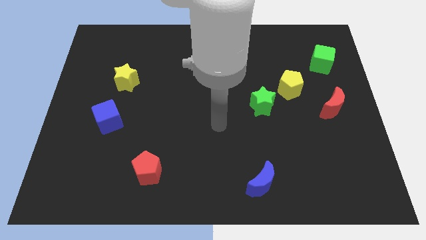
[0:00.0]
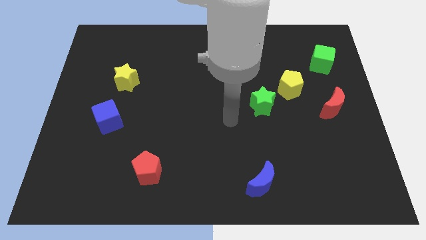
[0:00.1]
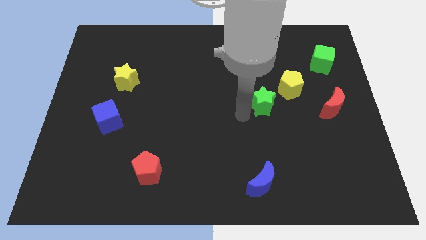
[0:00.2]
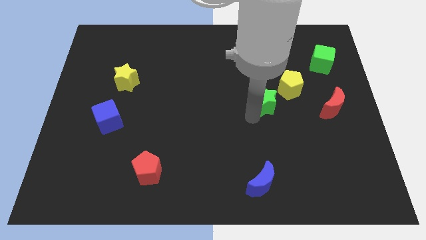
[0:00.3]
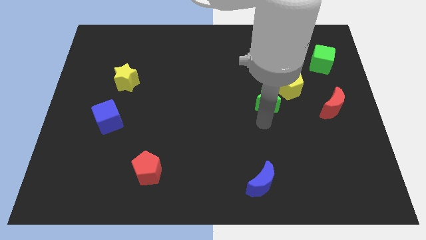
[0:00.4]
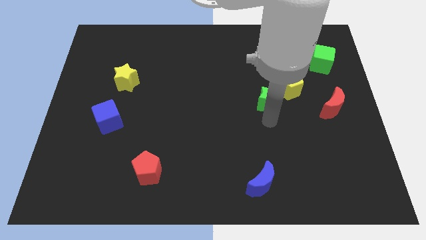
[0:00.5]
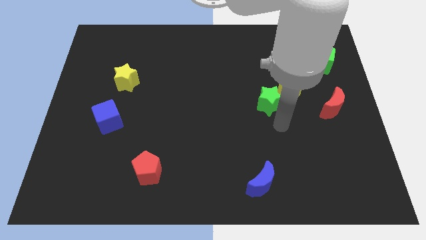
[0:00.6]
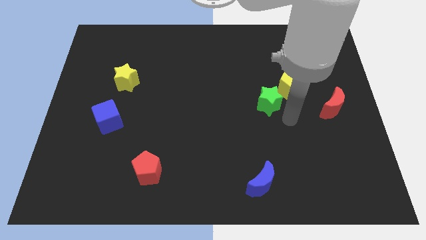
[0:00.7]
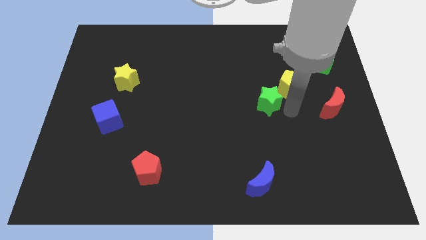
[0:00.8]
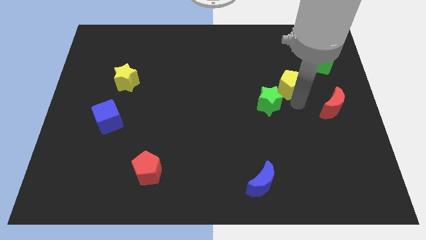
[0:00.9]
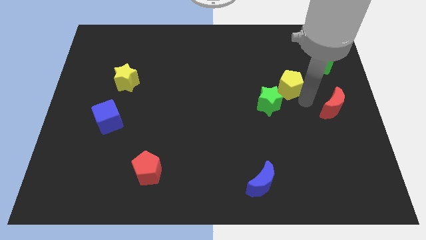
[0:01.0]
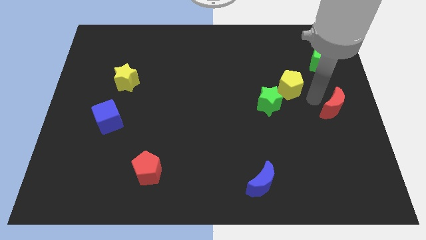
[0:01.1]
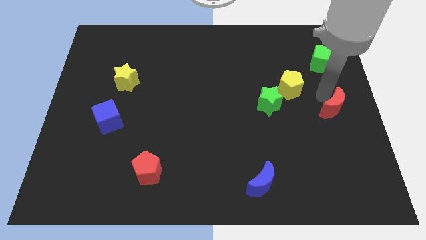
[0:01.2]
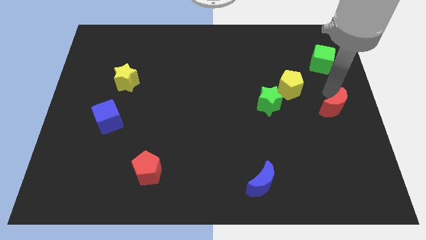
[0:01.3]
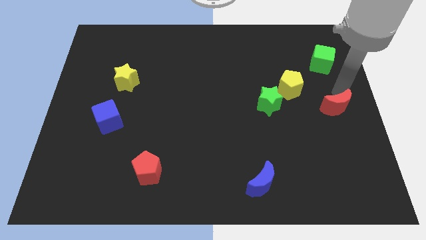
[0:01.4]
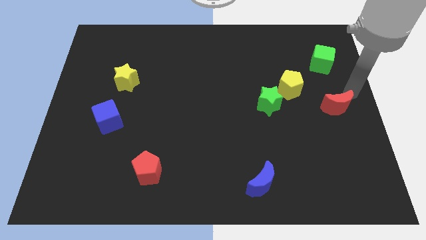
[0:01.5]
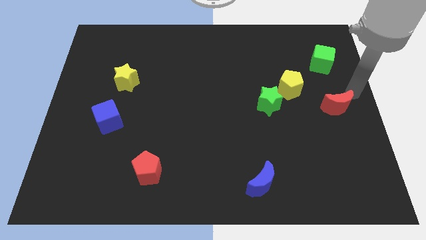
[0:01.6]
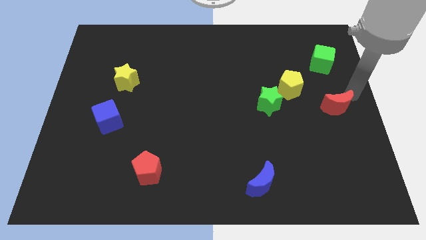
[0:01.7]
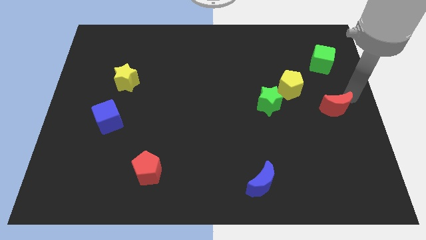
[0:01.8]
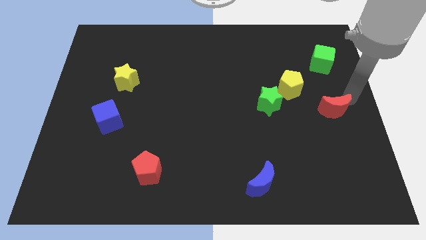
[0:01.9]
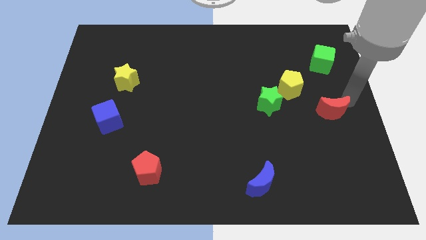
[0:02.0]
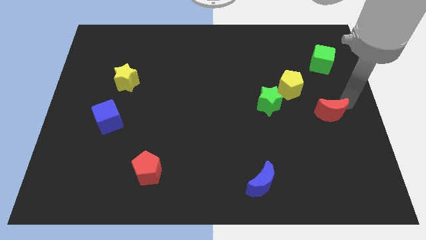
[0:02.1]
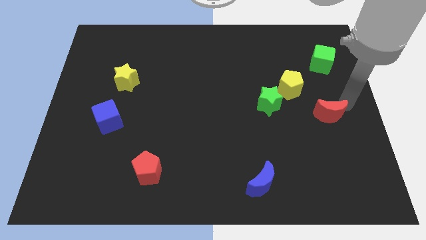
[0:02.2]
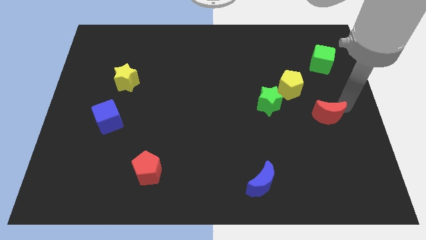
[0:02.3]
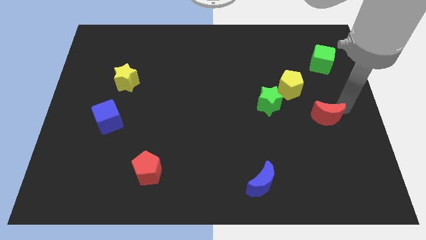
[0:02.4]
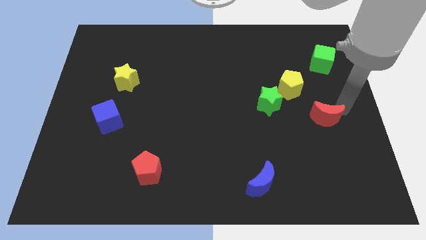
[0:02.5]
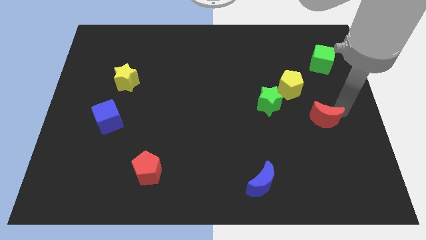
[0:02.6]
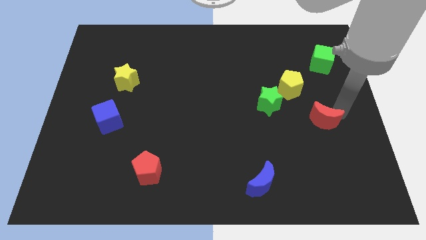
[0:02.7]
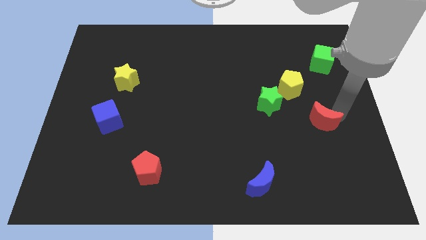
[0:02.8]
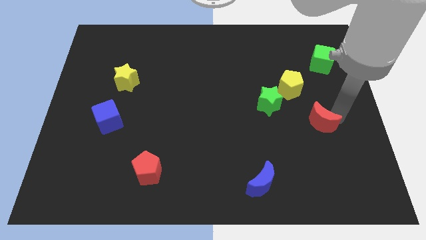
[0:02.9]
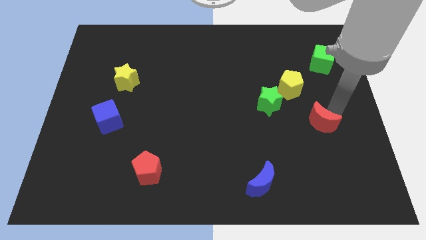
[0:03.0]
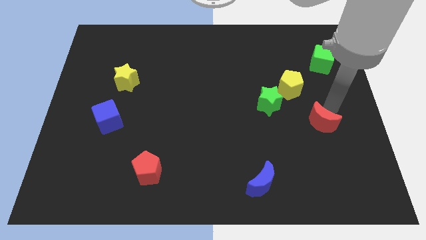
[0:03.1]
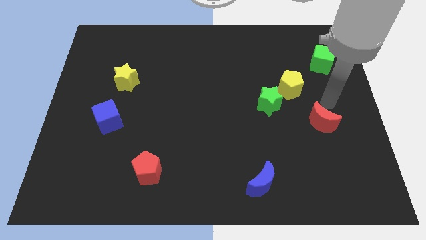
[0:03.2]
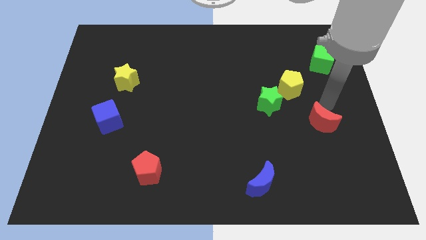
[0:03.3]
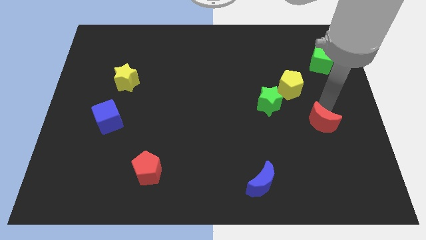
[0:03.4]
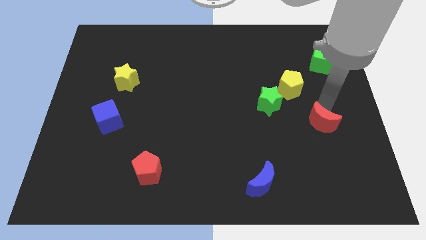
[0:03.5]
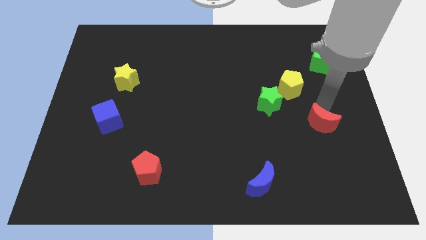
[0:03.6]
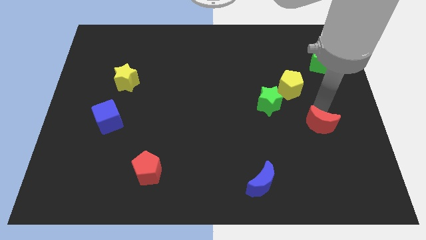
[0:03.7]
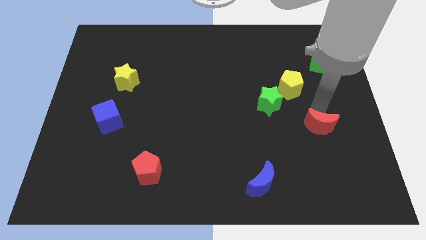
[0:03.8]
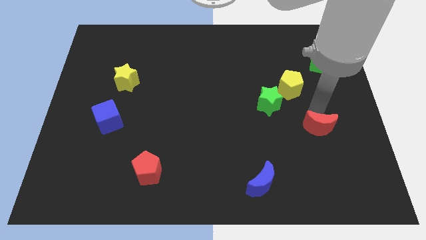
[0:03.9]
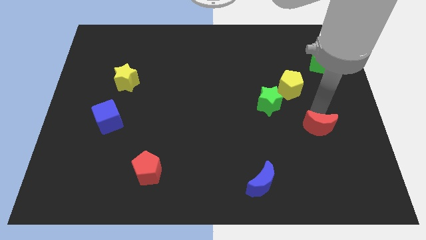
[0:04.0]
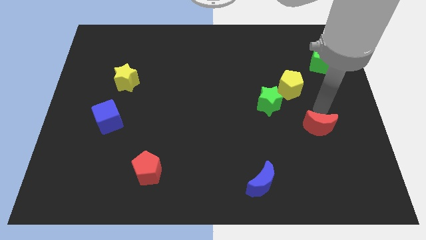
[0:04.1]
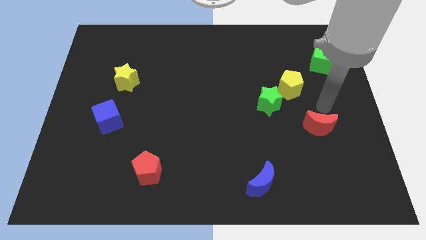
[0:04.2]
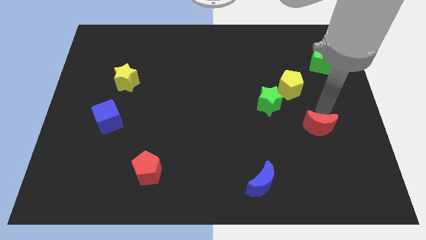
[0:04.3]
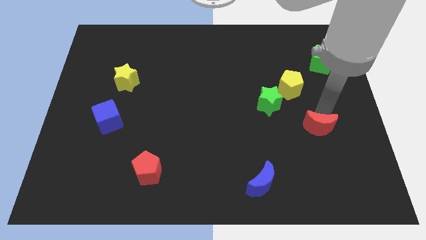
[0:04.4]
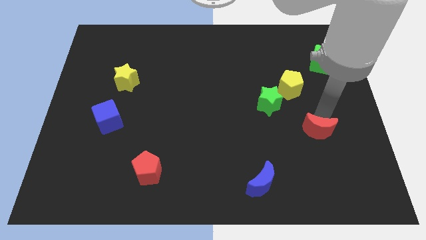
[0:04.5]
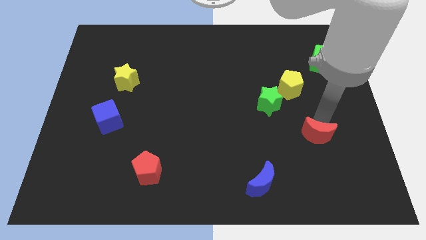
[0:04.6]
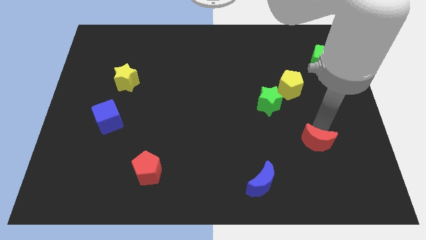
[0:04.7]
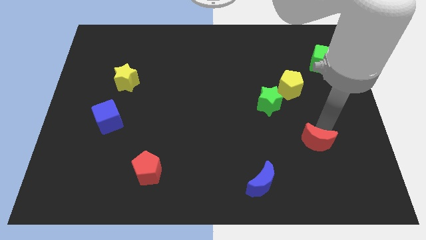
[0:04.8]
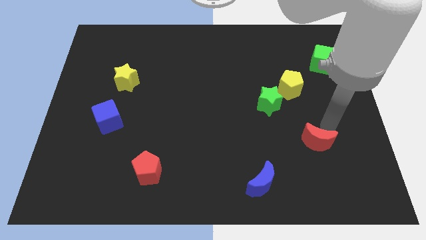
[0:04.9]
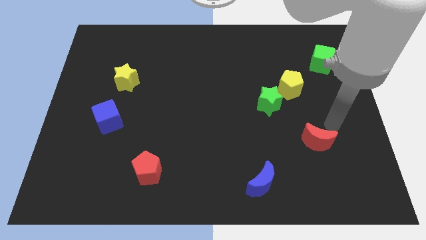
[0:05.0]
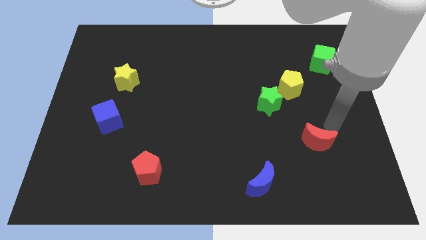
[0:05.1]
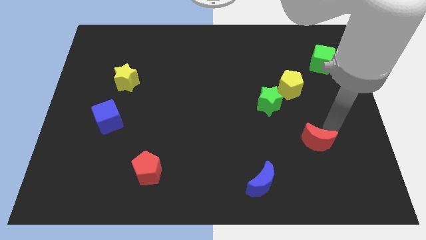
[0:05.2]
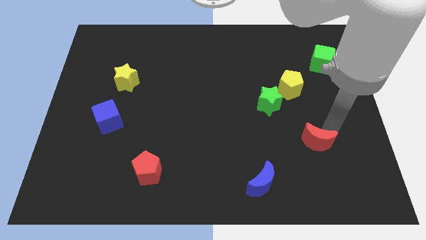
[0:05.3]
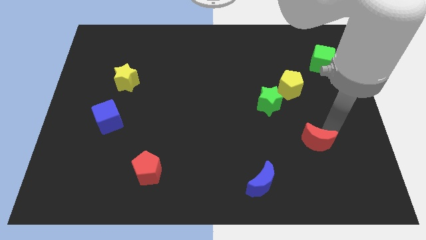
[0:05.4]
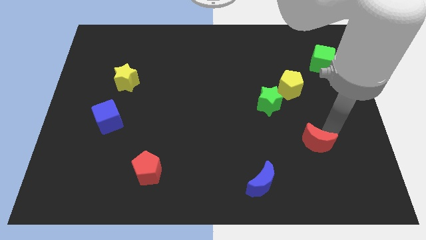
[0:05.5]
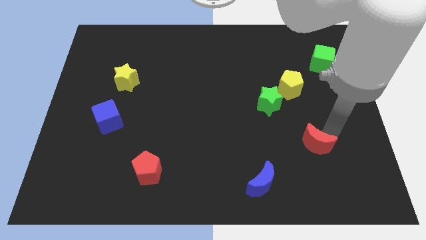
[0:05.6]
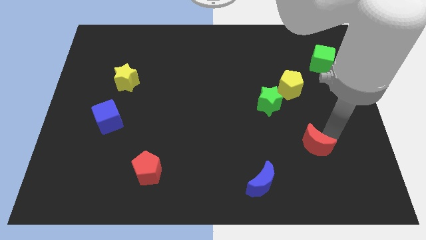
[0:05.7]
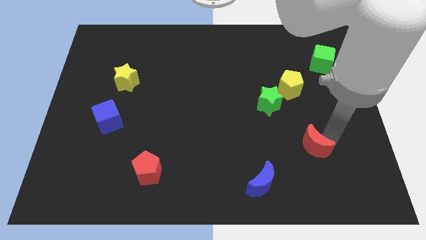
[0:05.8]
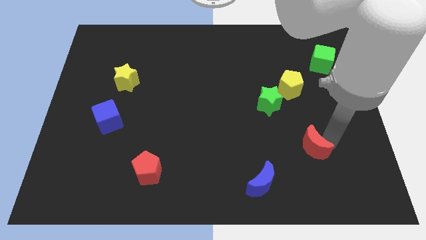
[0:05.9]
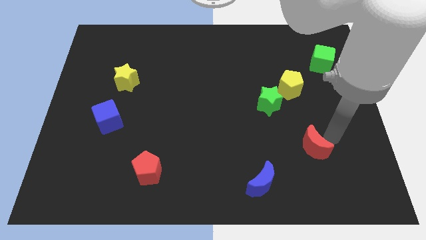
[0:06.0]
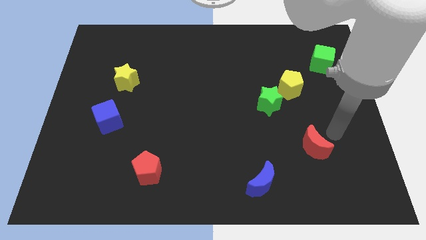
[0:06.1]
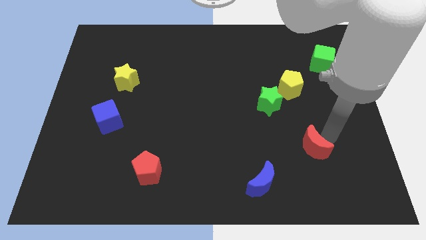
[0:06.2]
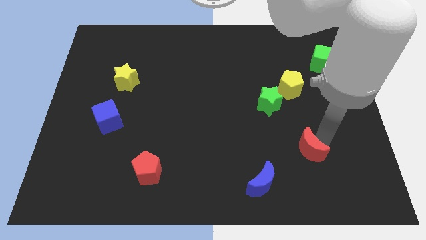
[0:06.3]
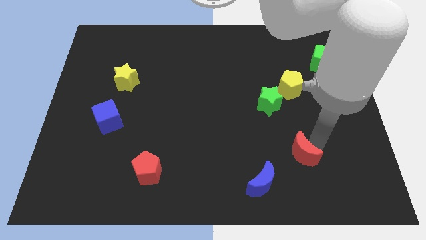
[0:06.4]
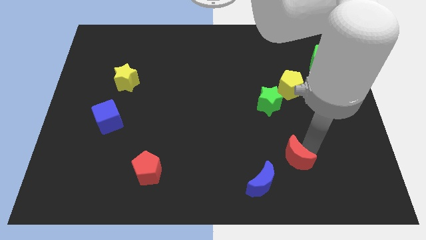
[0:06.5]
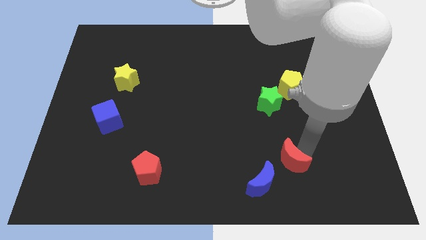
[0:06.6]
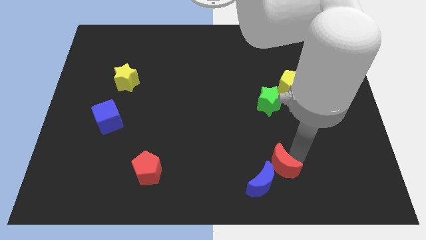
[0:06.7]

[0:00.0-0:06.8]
slide the red moon towards the blue moon

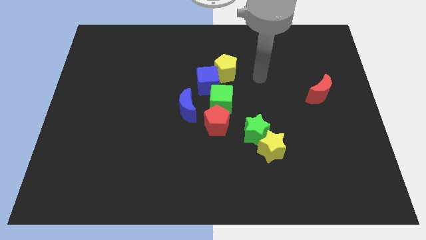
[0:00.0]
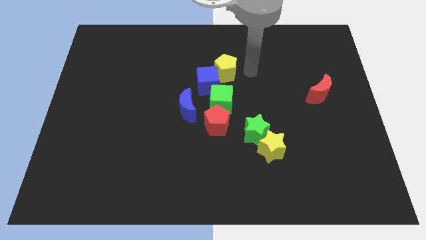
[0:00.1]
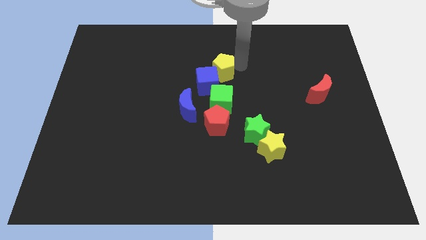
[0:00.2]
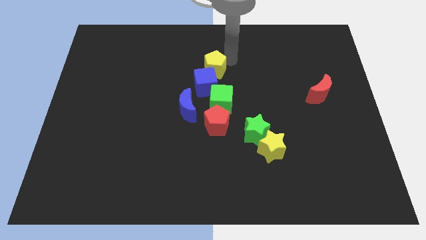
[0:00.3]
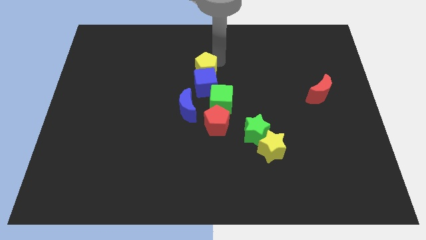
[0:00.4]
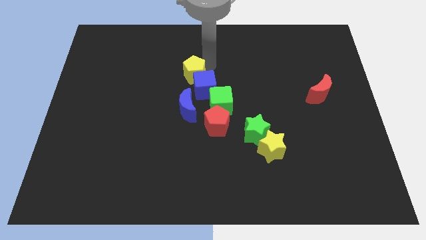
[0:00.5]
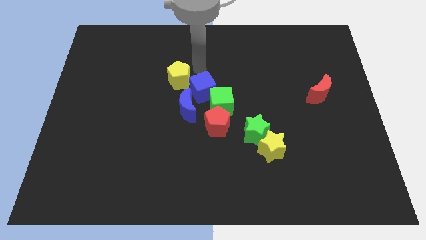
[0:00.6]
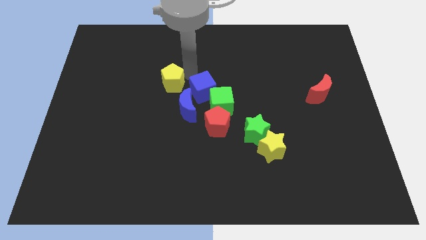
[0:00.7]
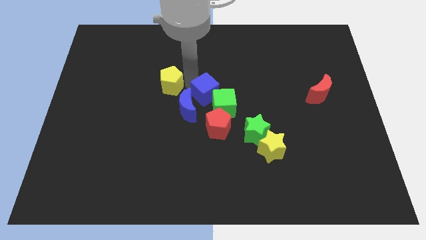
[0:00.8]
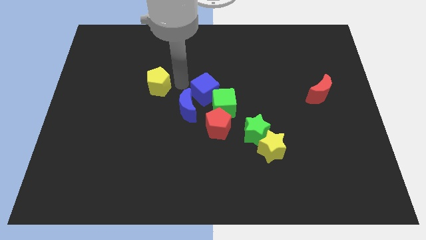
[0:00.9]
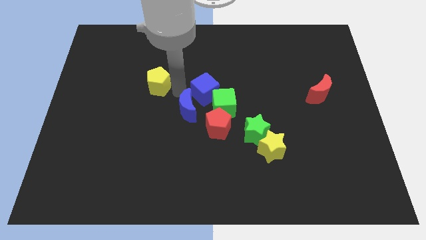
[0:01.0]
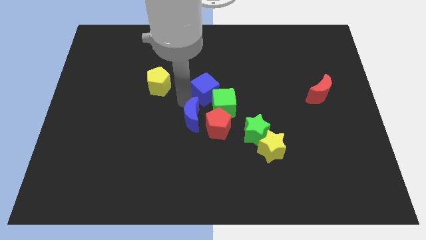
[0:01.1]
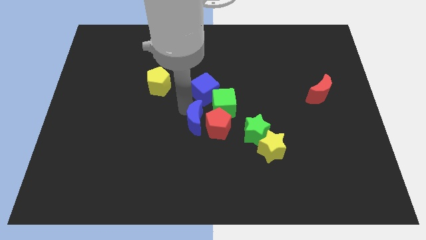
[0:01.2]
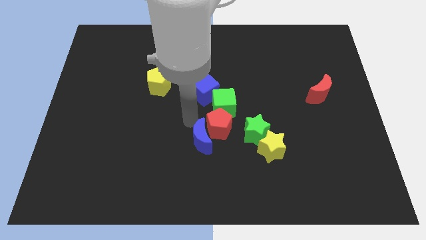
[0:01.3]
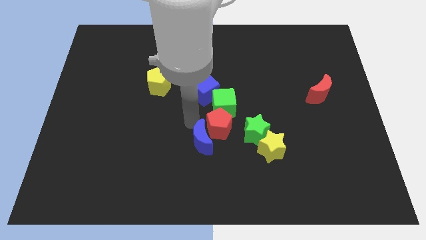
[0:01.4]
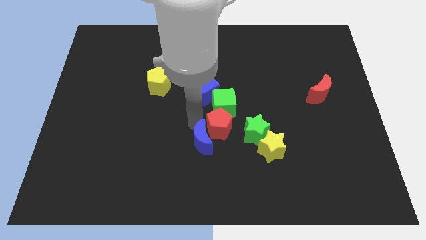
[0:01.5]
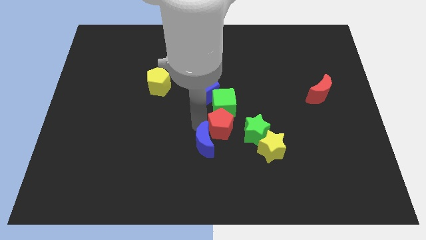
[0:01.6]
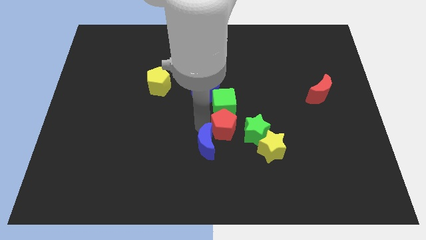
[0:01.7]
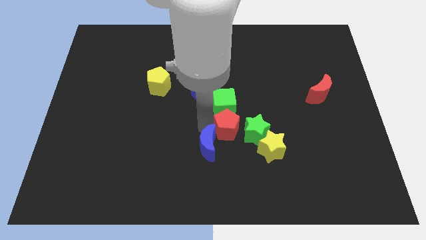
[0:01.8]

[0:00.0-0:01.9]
put the red pentagon close to the green star
